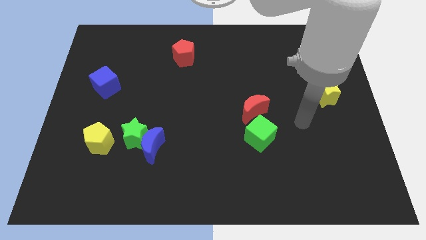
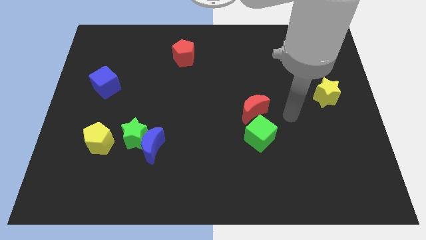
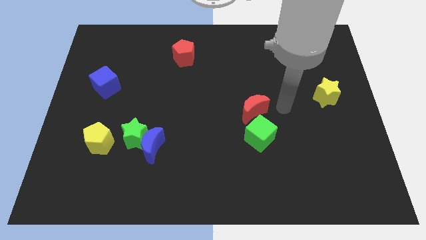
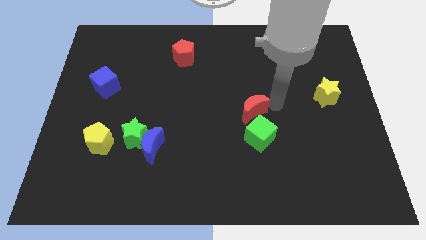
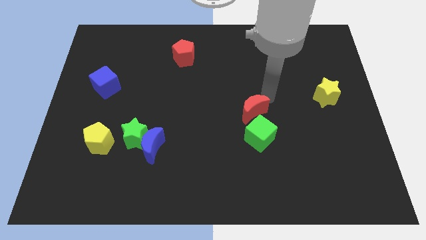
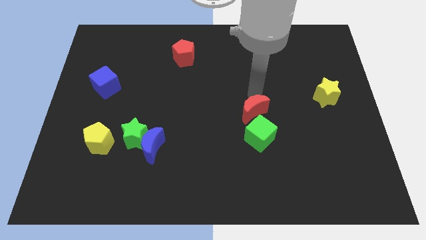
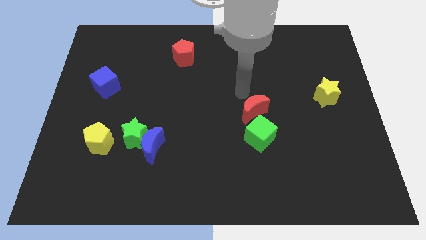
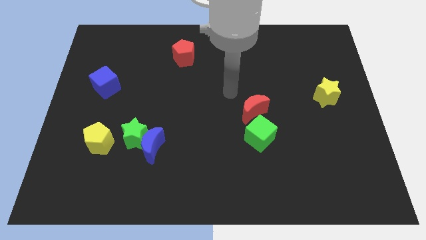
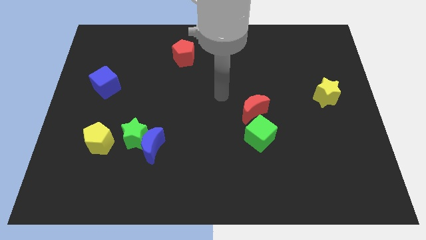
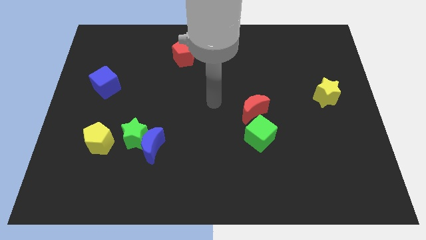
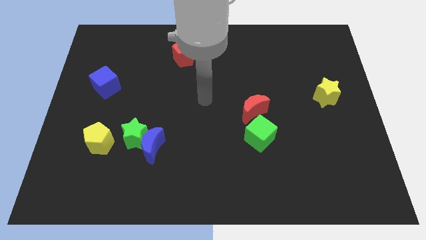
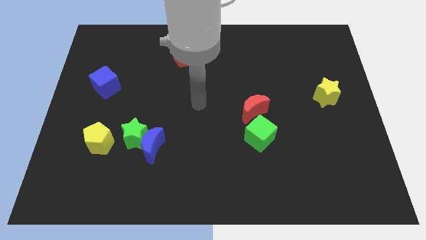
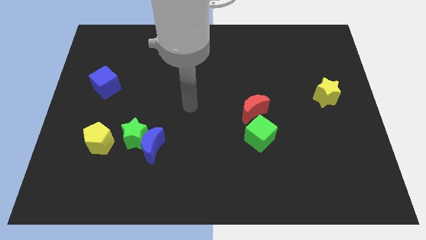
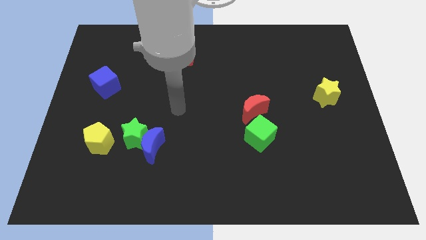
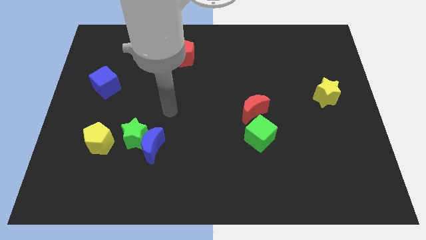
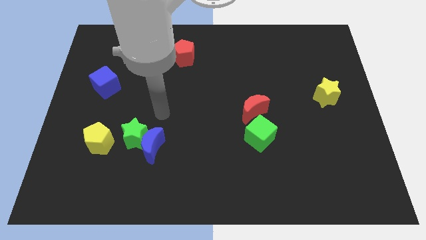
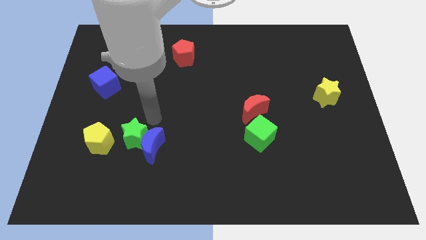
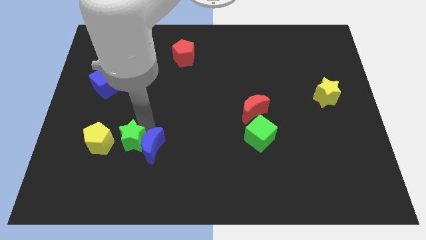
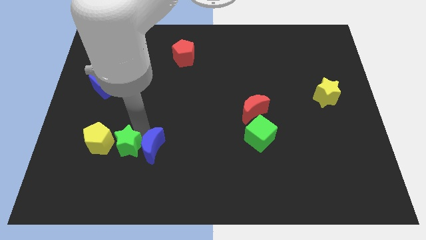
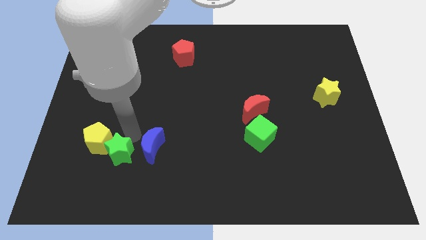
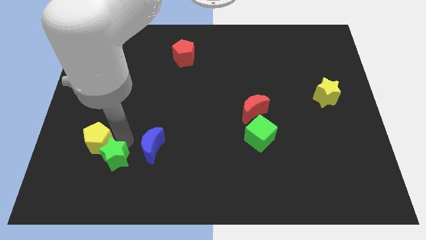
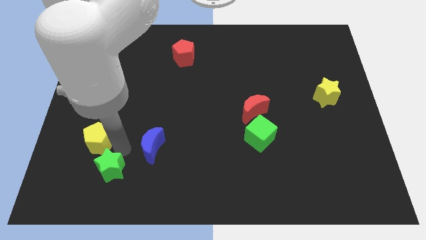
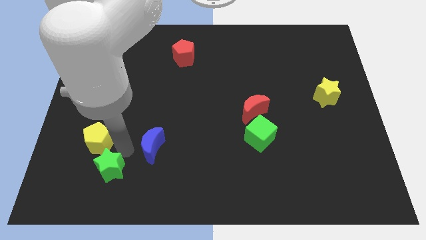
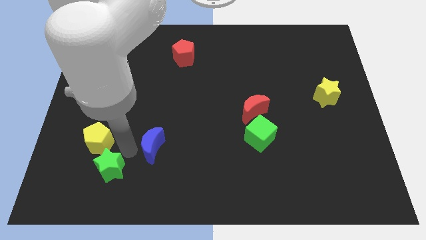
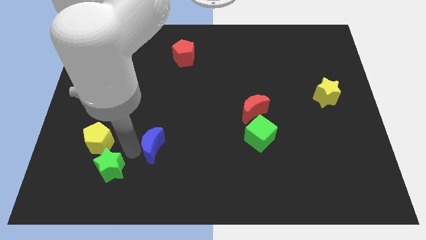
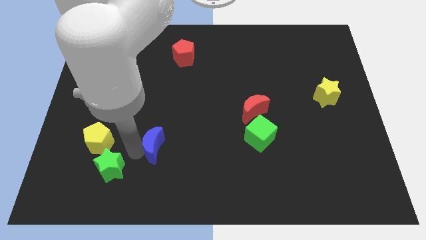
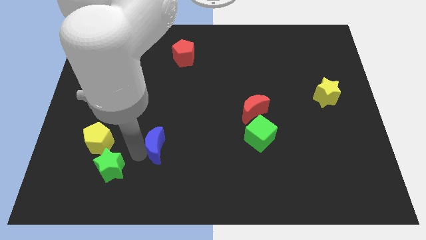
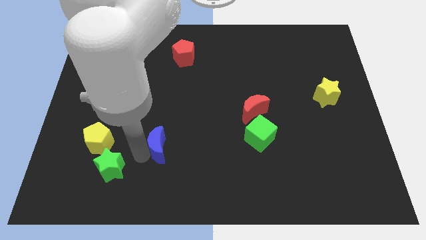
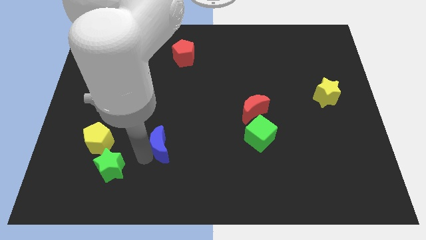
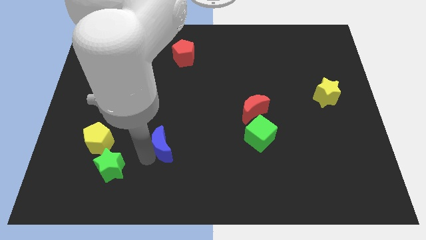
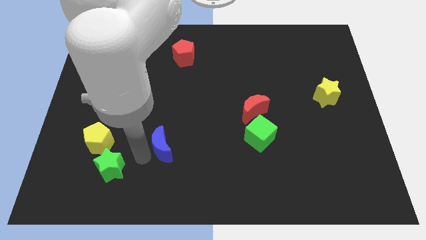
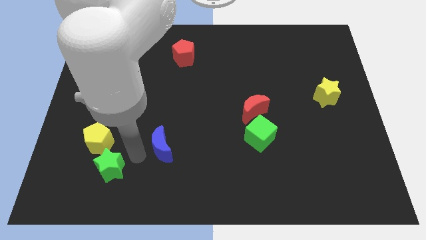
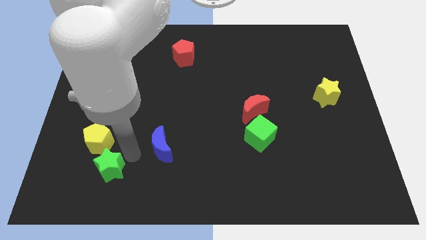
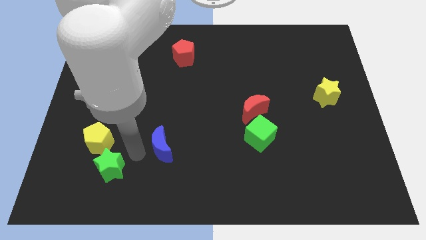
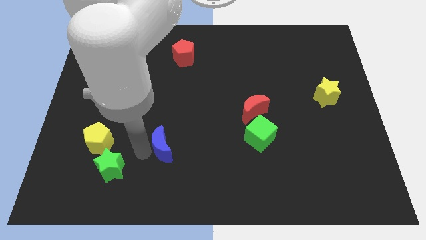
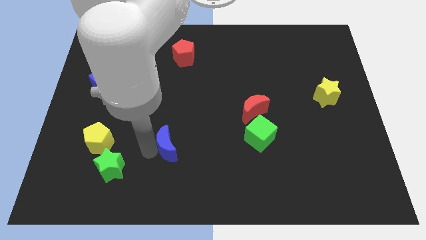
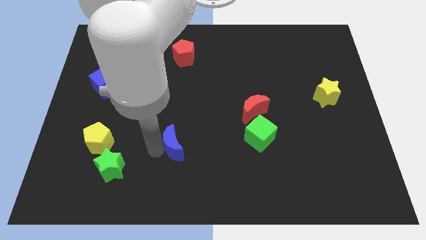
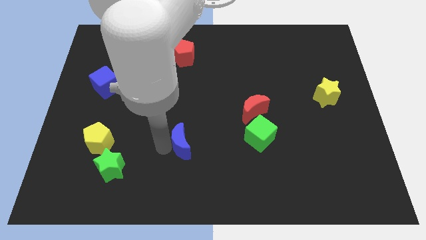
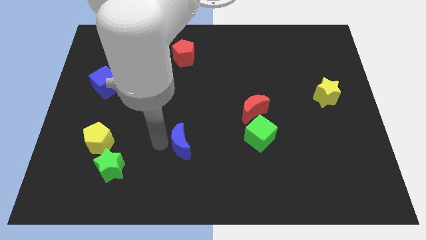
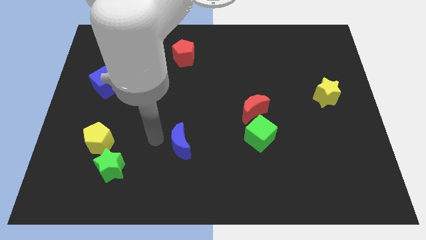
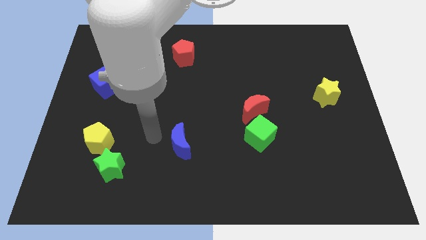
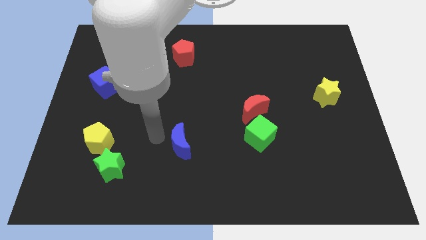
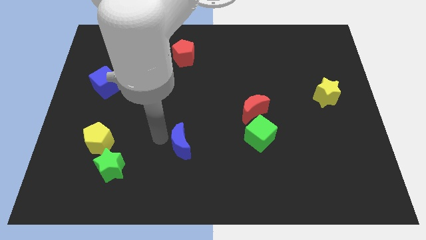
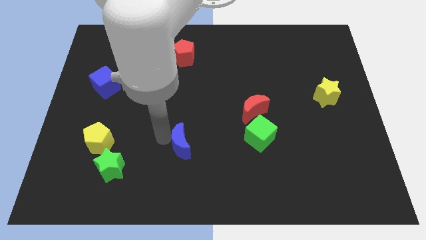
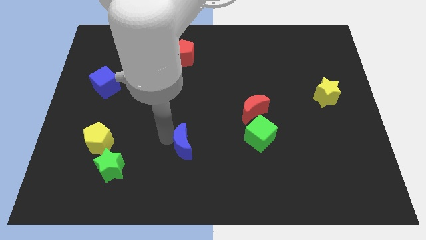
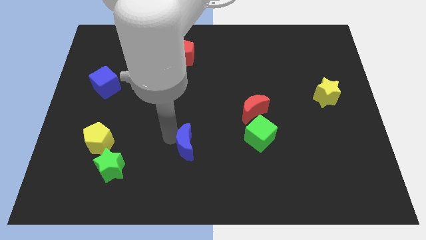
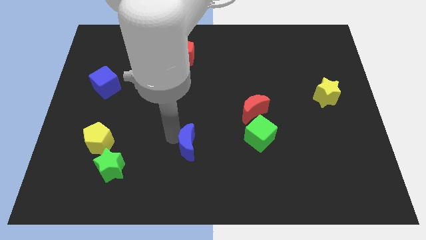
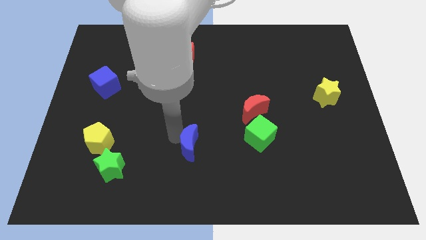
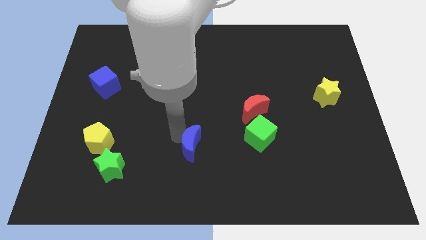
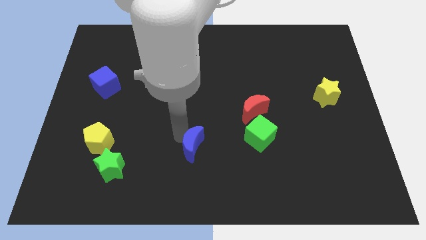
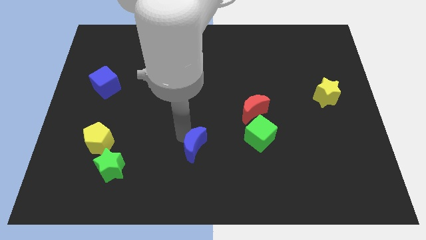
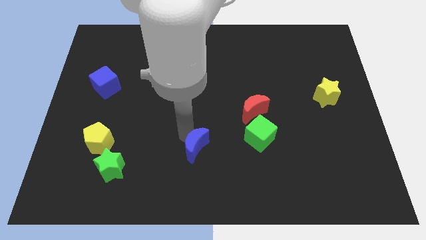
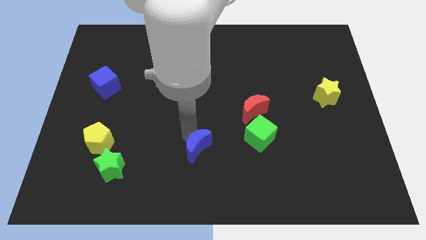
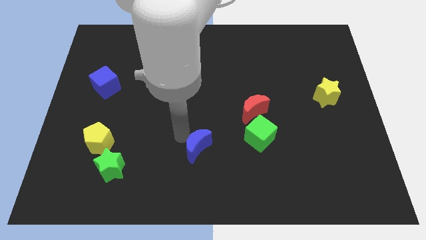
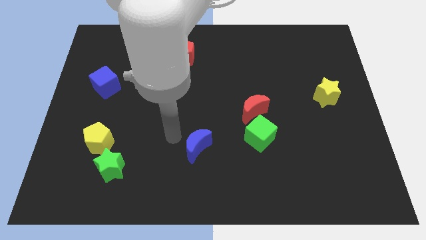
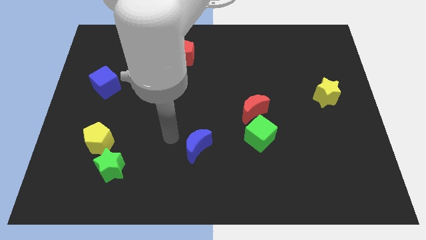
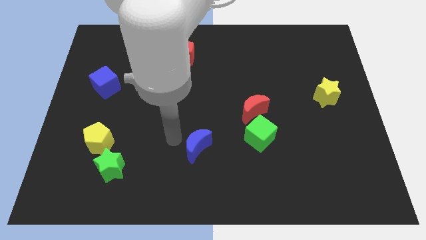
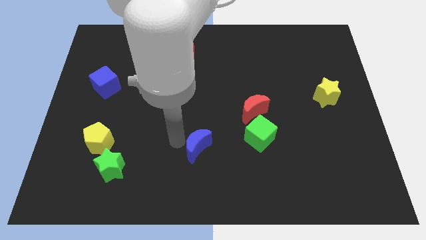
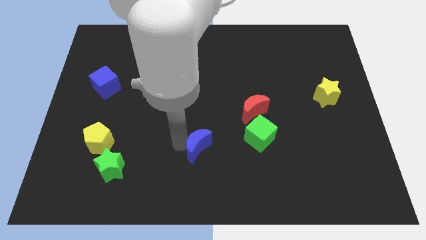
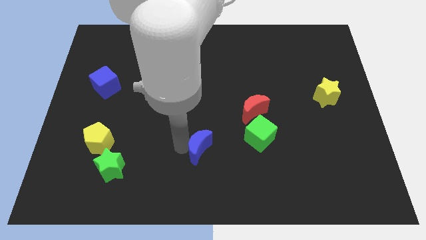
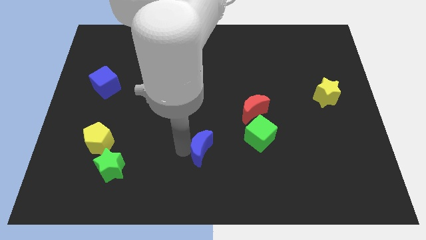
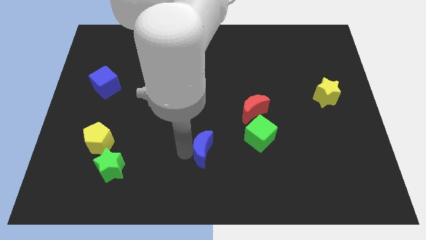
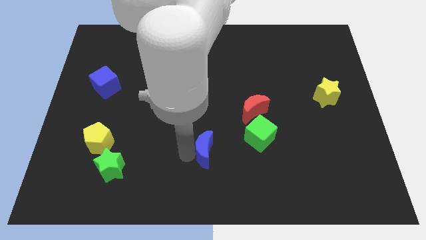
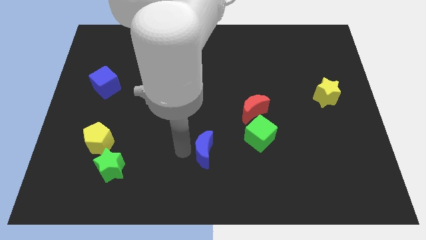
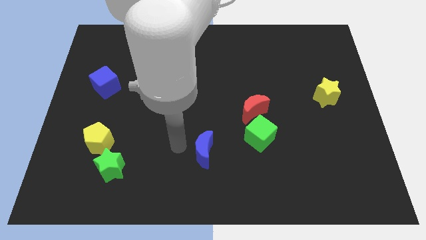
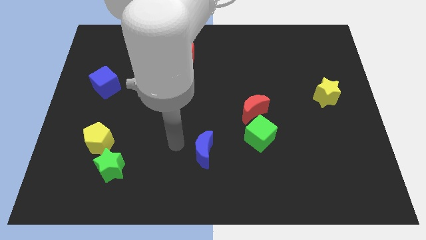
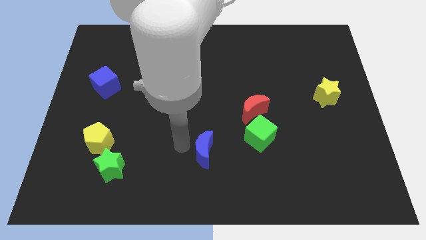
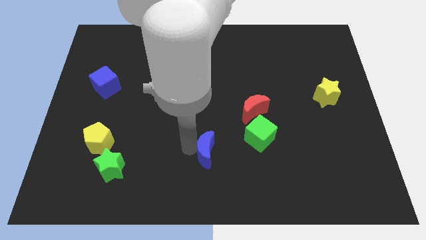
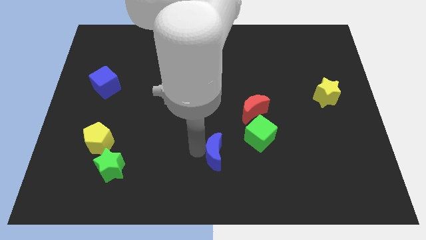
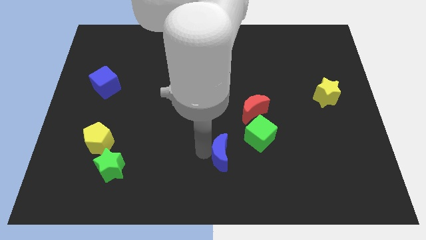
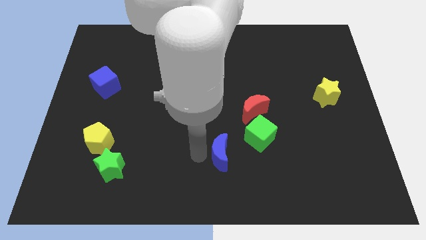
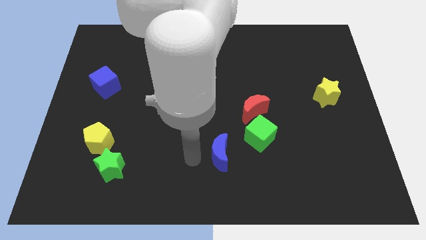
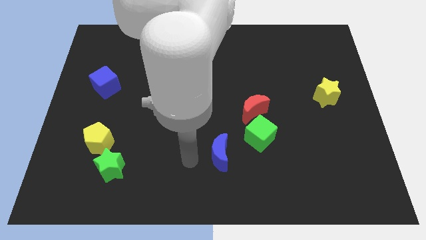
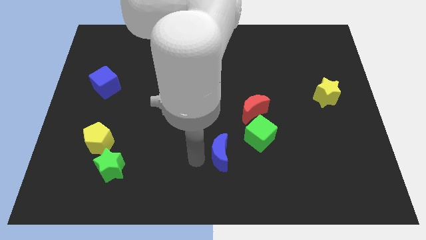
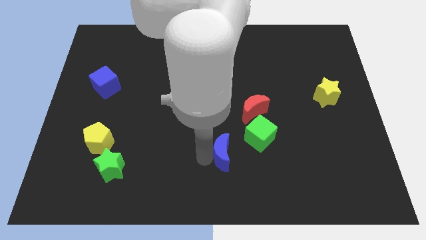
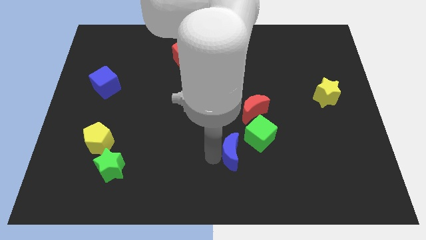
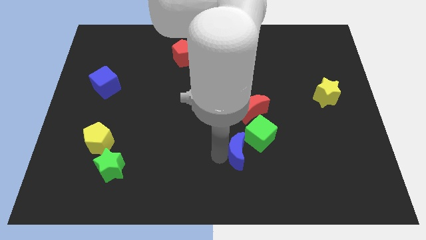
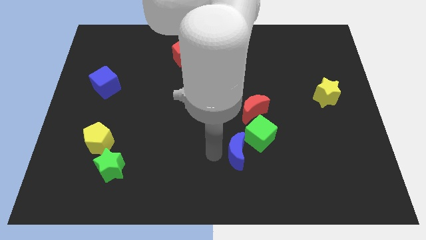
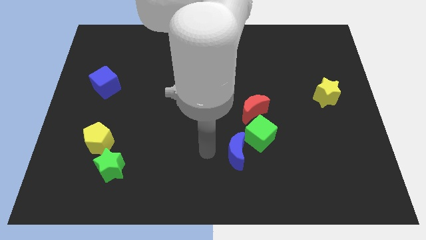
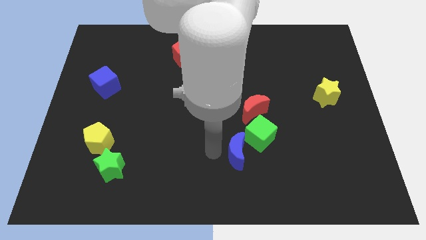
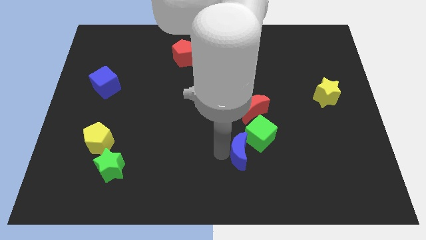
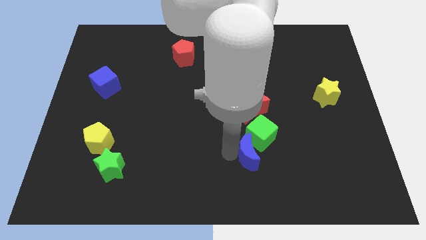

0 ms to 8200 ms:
slide the blue moon to the right
